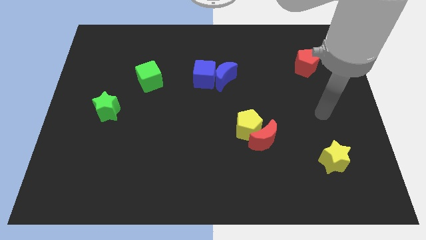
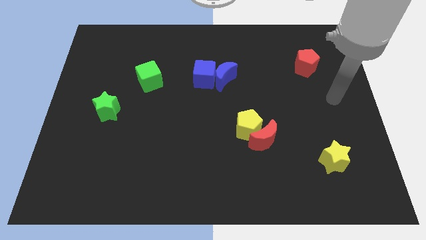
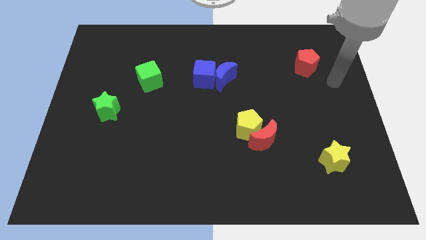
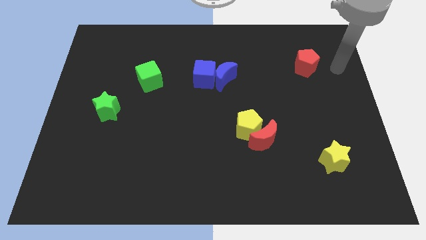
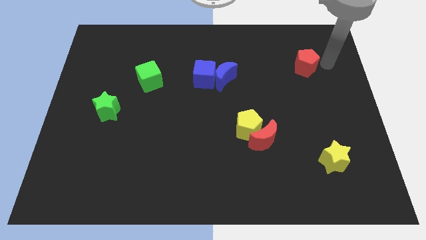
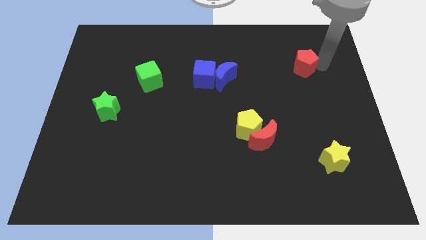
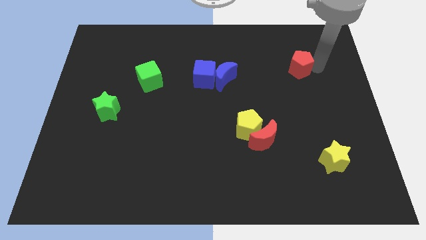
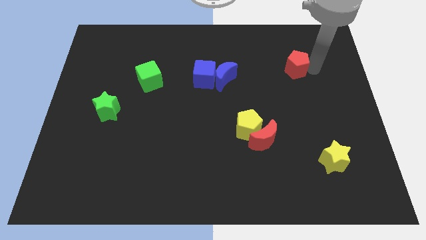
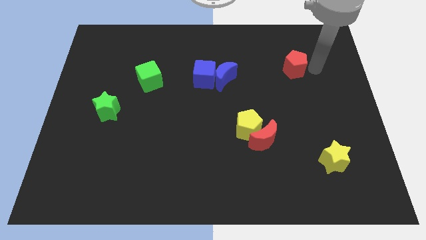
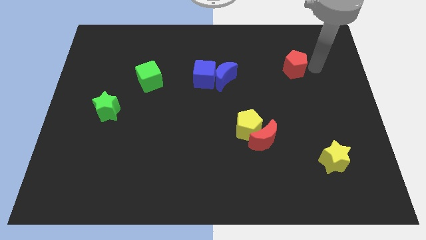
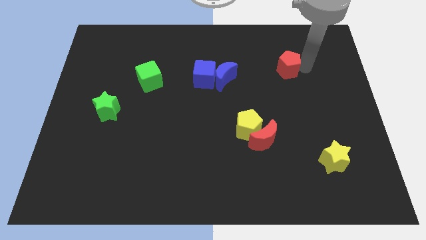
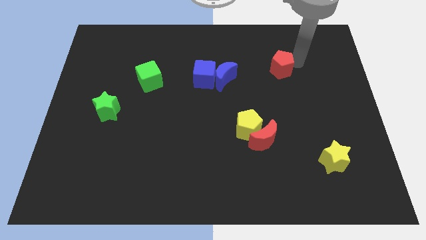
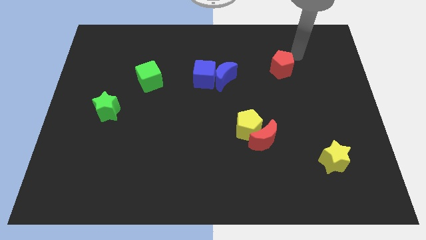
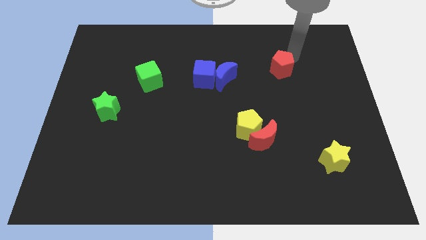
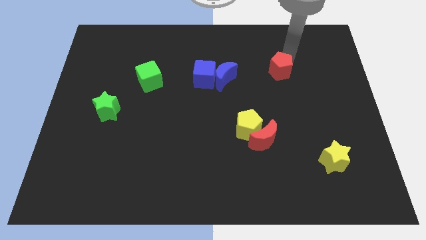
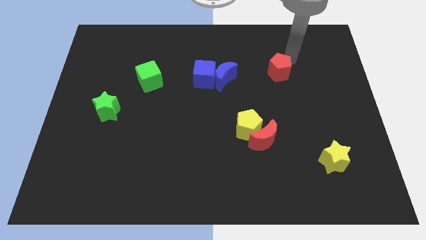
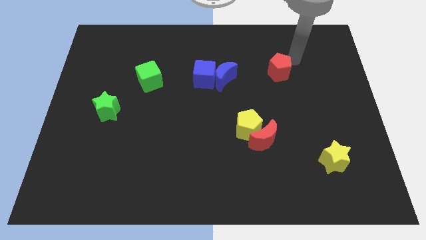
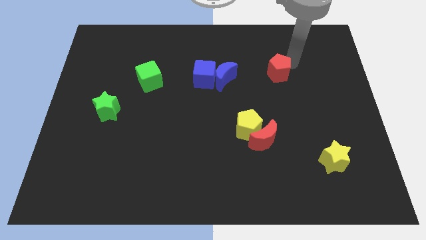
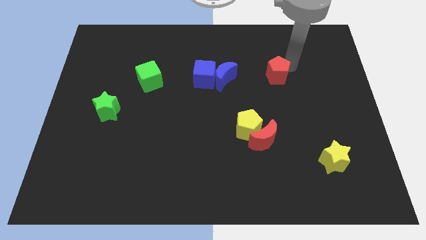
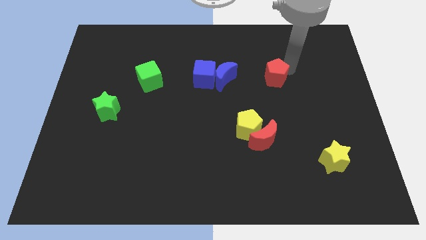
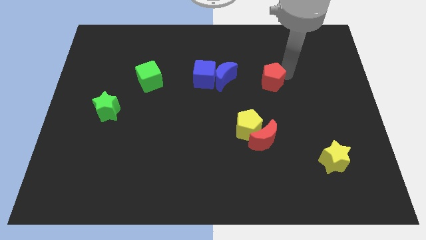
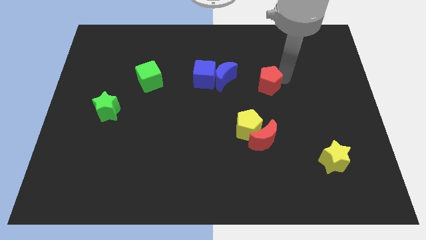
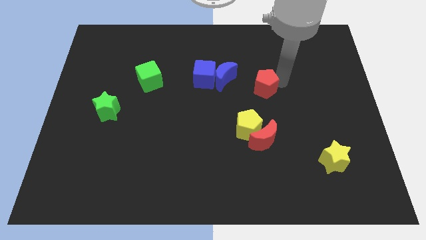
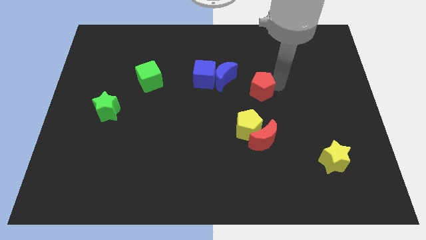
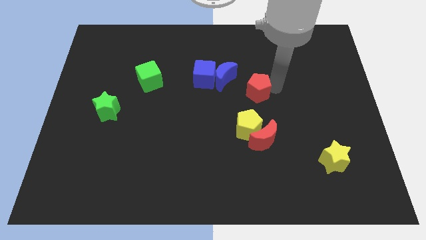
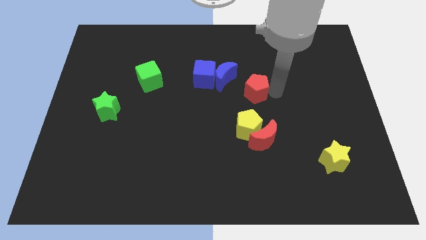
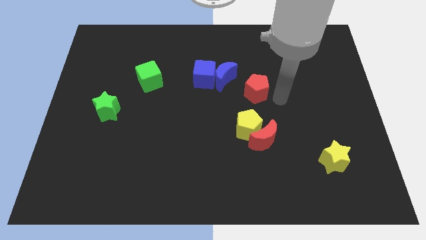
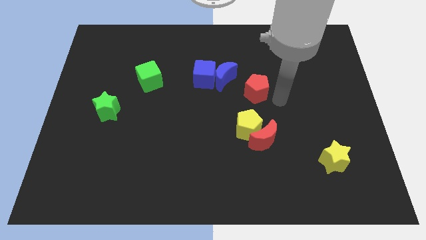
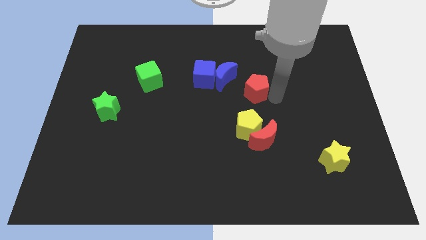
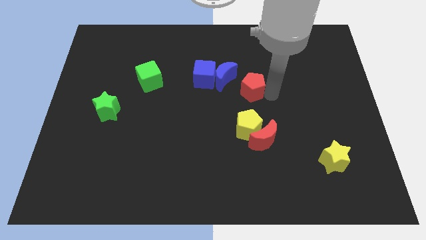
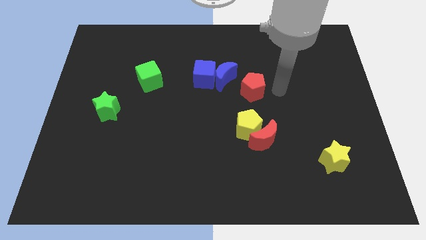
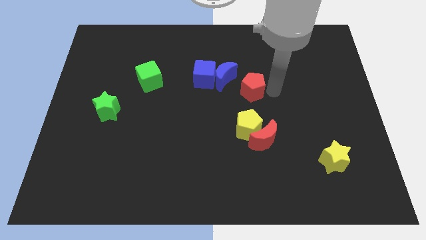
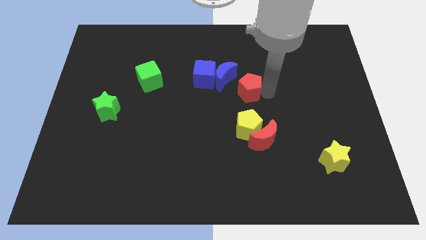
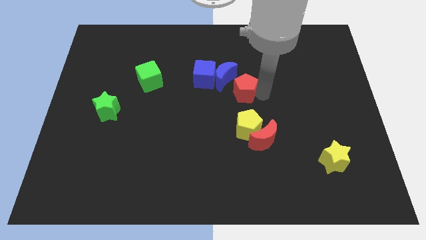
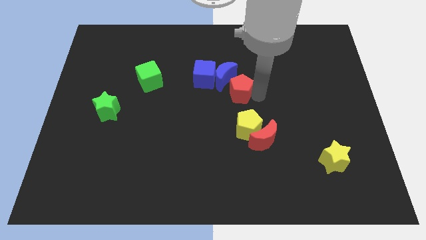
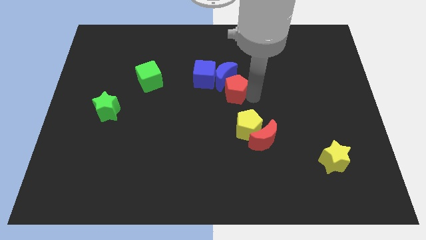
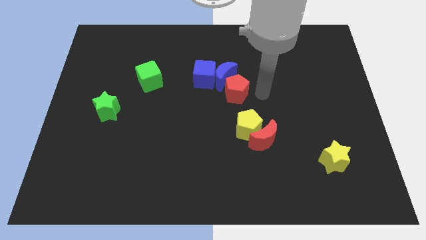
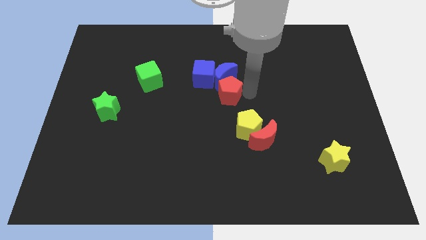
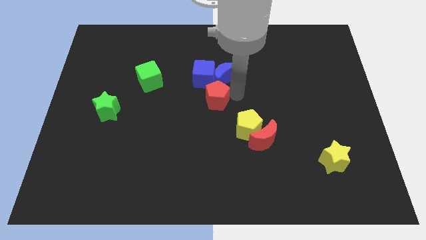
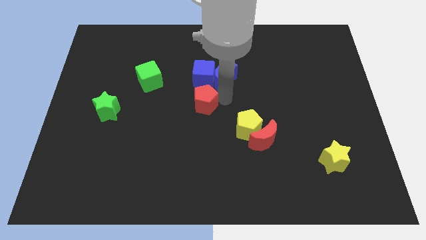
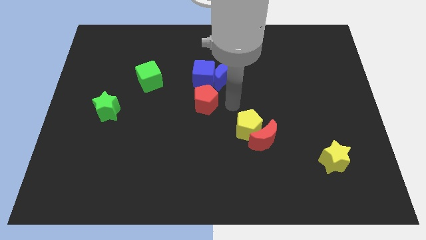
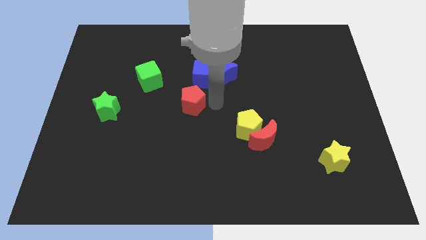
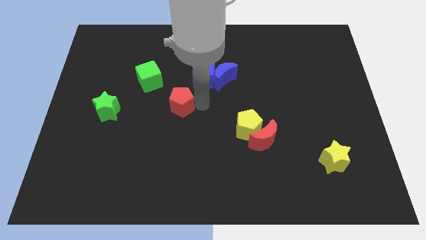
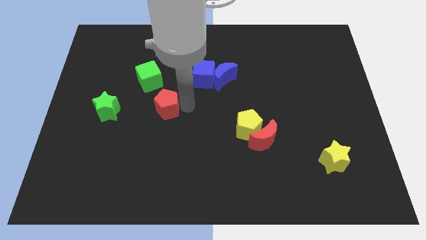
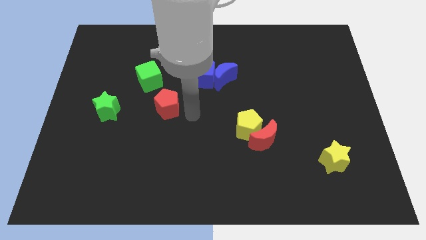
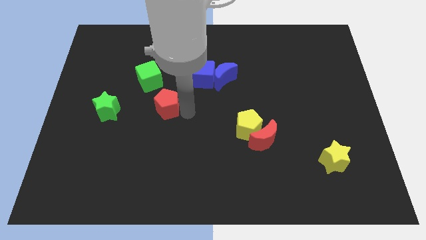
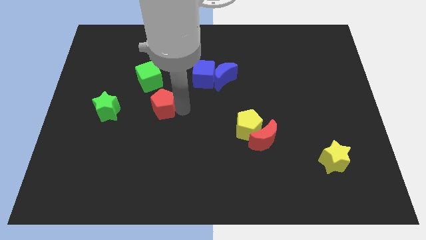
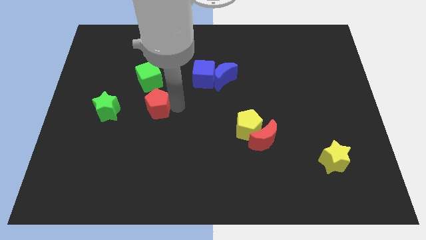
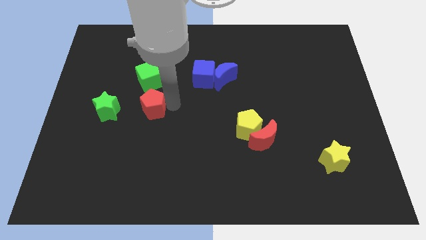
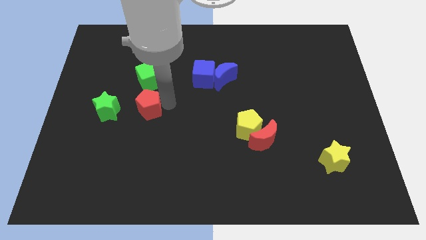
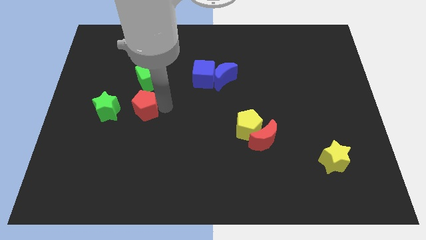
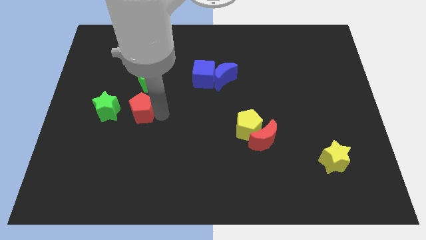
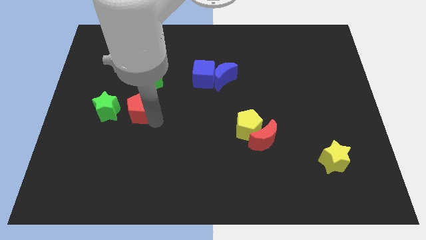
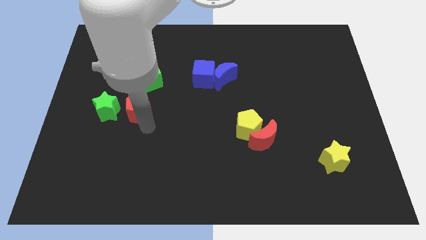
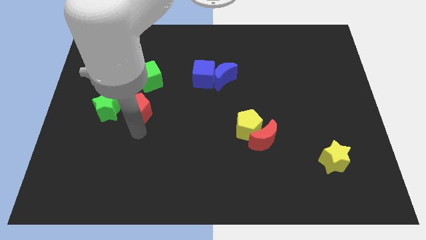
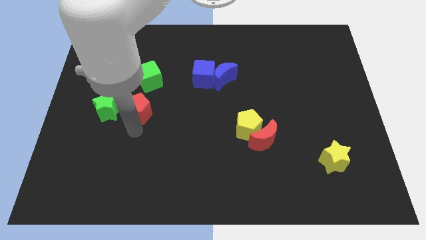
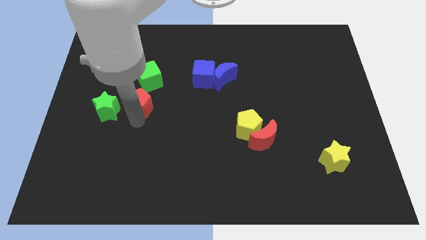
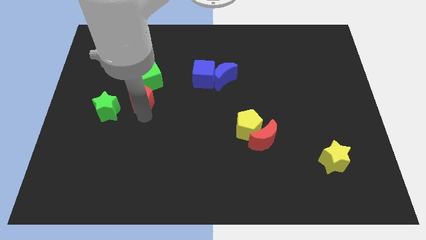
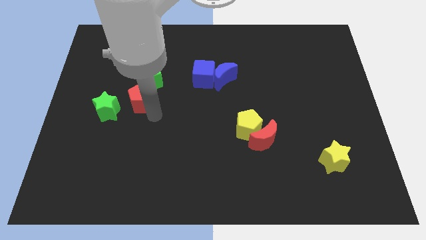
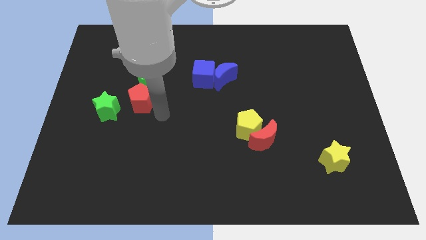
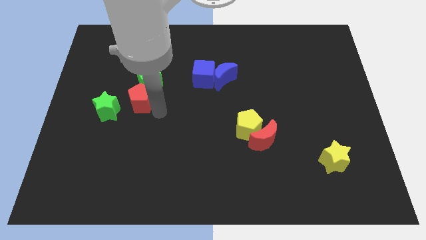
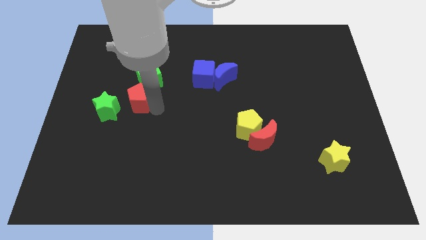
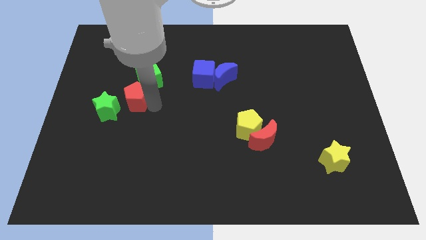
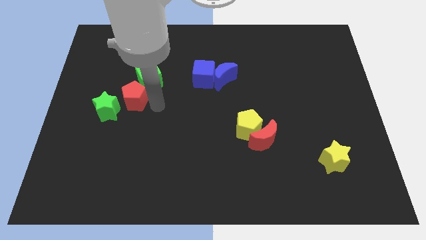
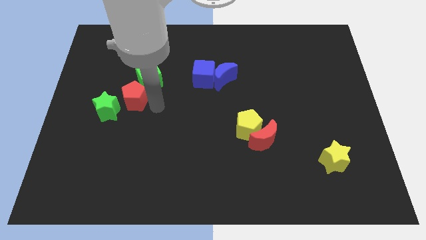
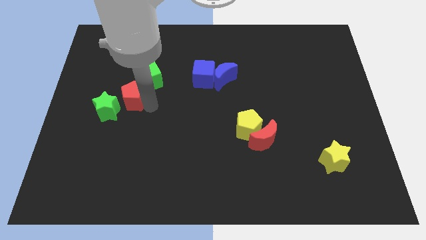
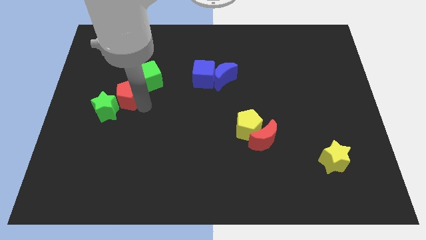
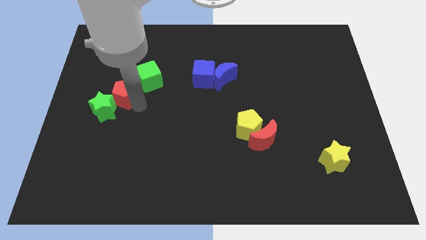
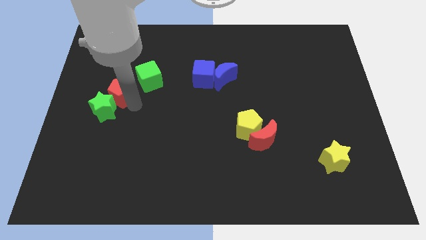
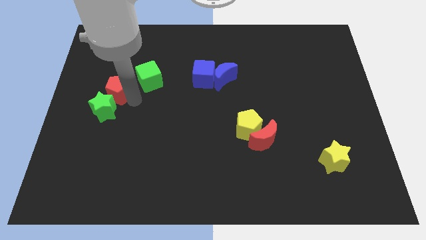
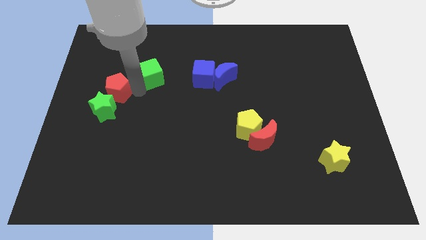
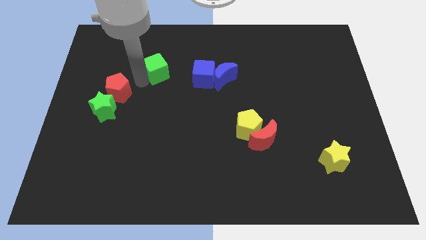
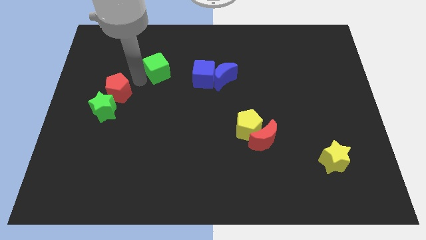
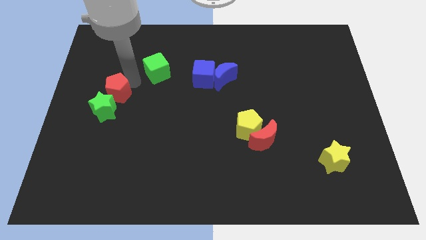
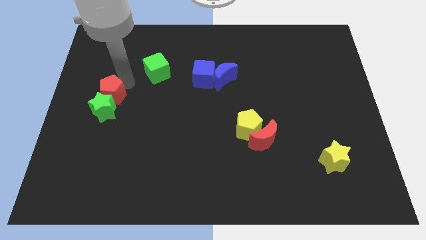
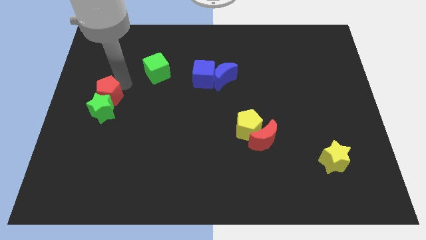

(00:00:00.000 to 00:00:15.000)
put the red pentagon to the left side of the board
